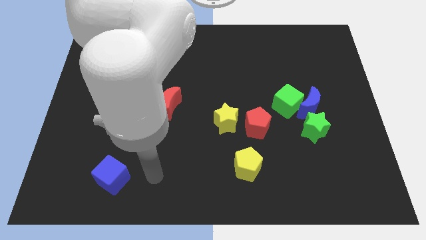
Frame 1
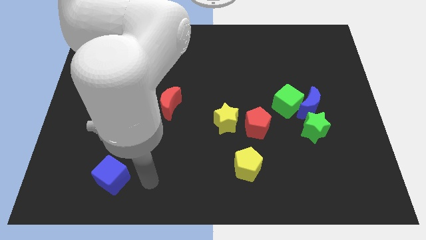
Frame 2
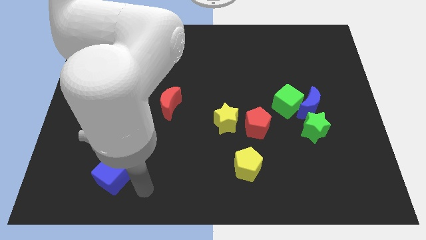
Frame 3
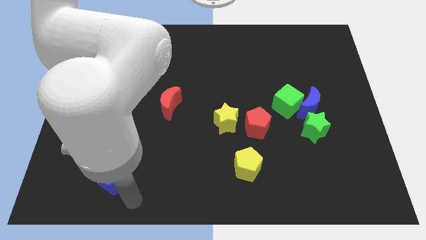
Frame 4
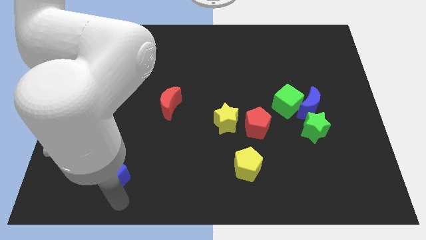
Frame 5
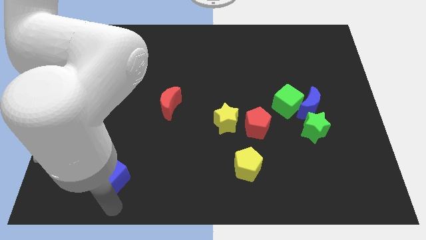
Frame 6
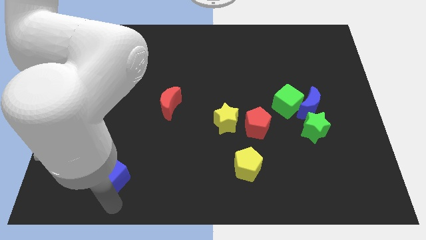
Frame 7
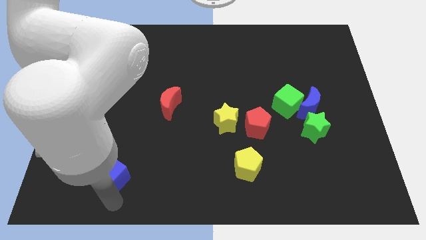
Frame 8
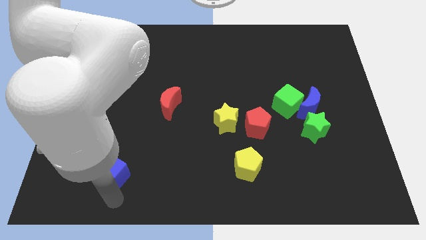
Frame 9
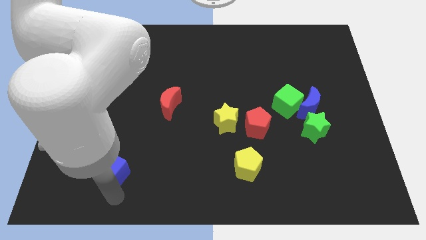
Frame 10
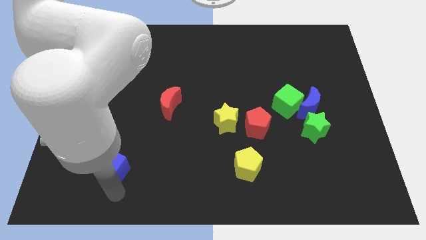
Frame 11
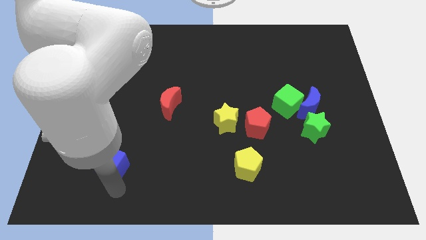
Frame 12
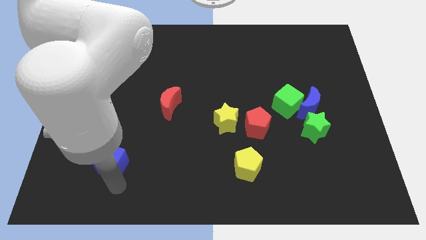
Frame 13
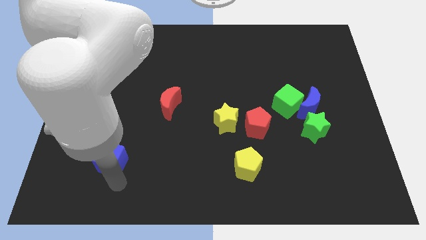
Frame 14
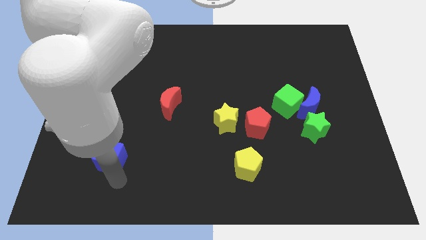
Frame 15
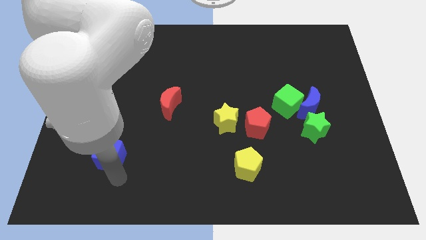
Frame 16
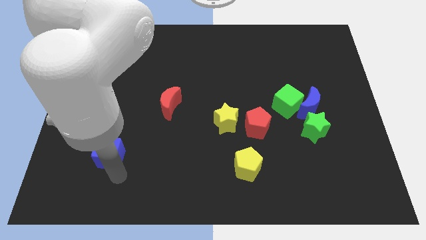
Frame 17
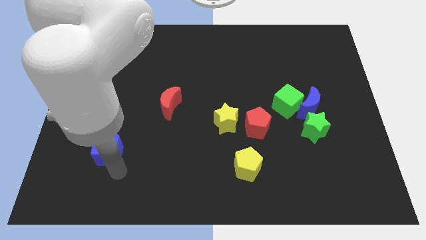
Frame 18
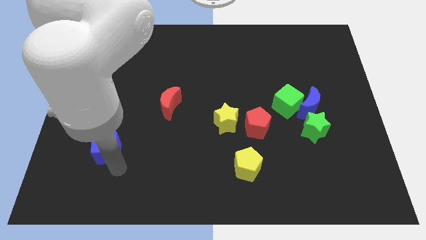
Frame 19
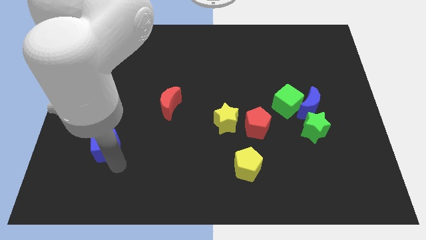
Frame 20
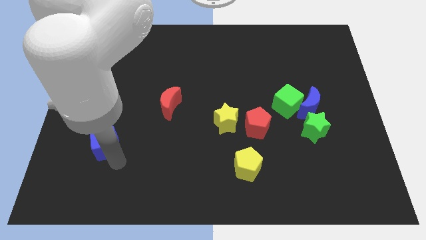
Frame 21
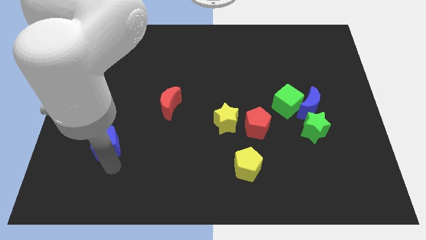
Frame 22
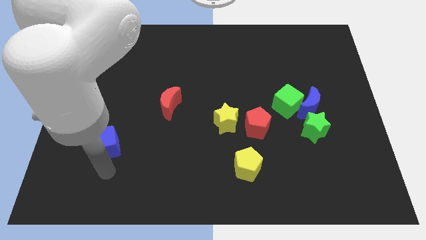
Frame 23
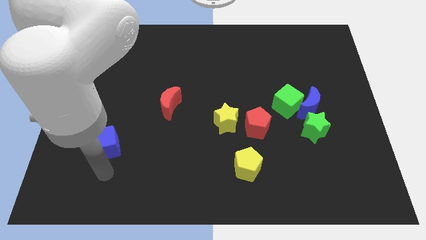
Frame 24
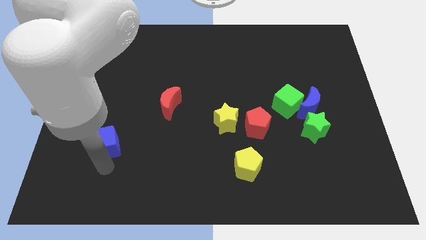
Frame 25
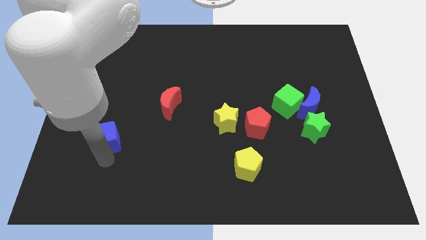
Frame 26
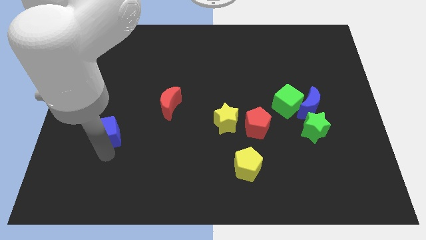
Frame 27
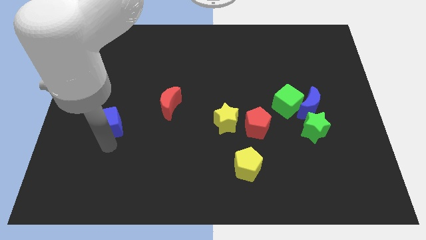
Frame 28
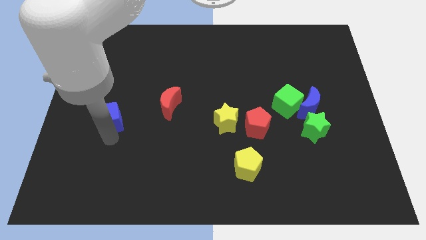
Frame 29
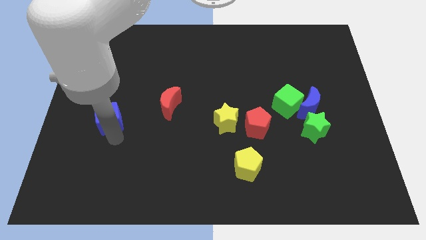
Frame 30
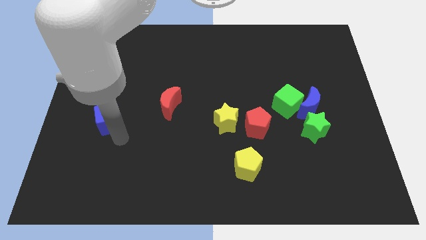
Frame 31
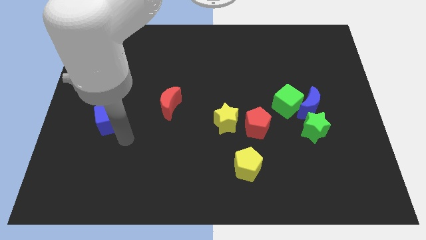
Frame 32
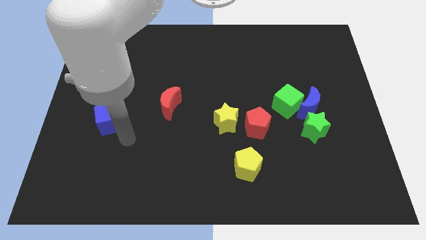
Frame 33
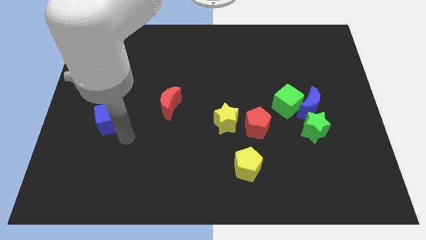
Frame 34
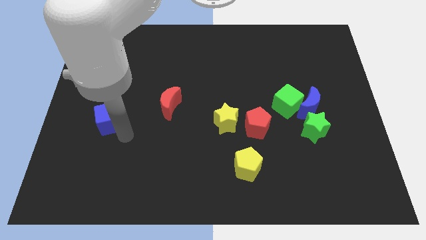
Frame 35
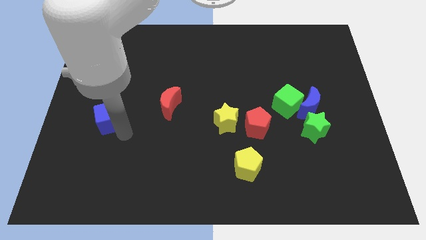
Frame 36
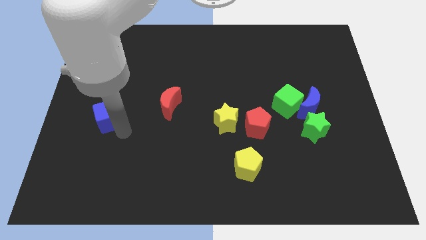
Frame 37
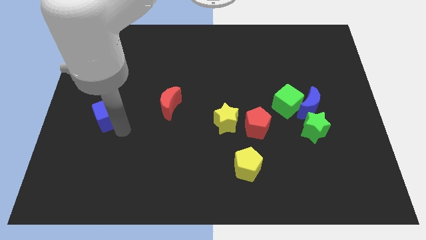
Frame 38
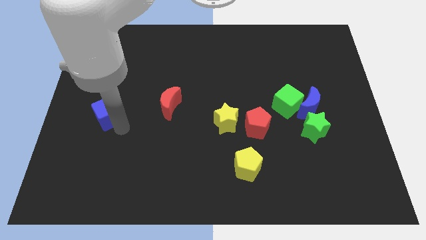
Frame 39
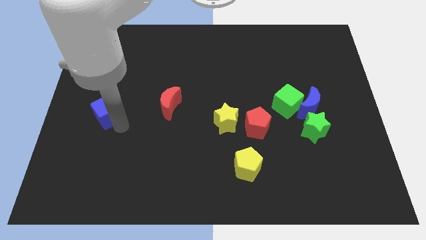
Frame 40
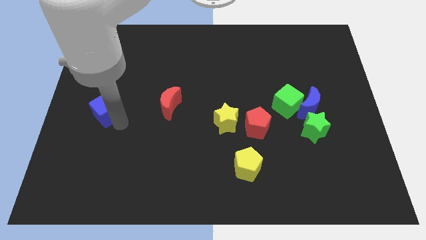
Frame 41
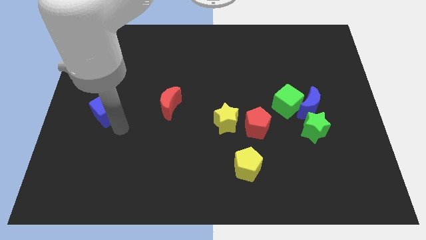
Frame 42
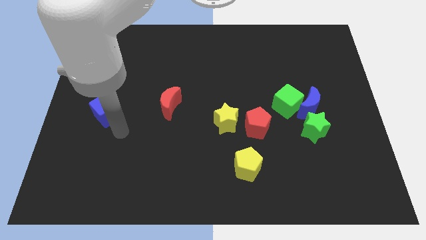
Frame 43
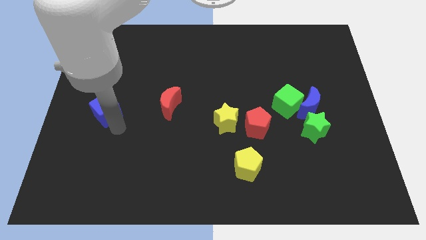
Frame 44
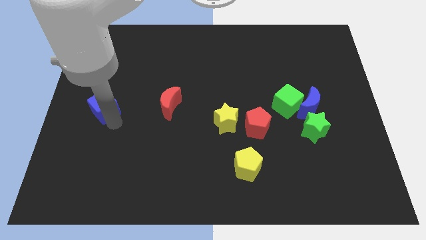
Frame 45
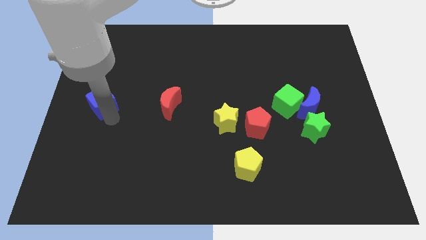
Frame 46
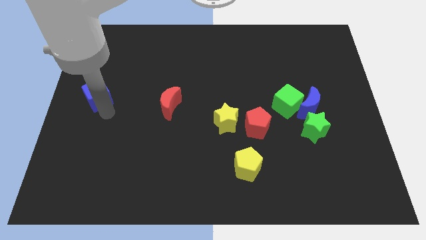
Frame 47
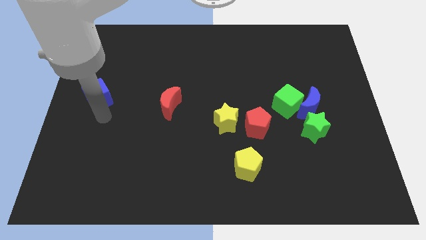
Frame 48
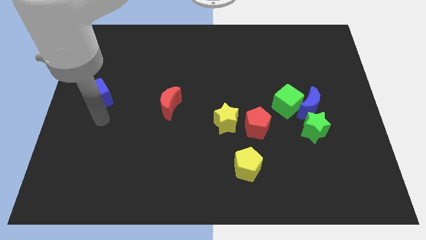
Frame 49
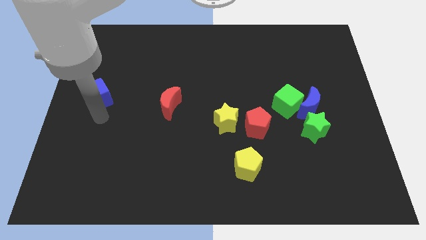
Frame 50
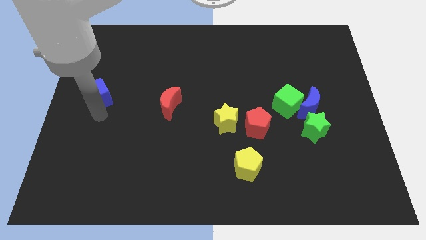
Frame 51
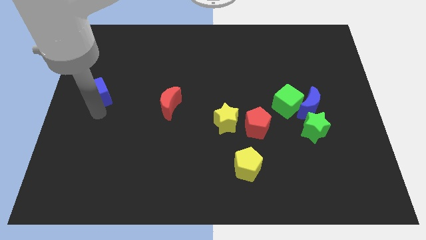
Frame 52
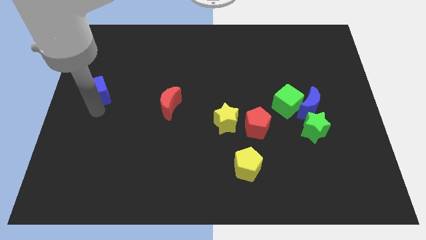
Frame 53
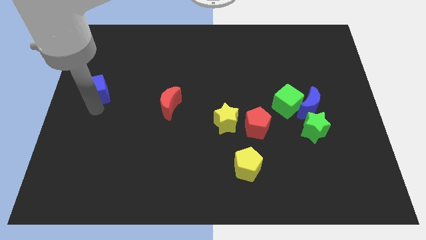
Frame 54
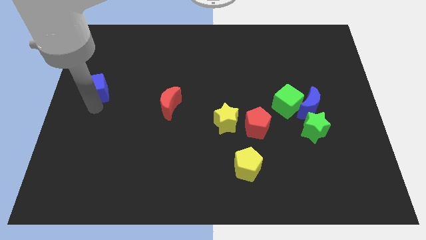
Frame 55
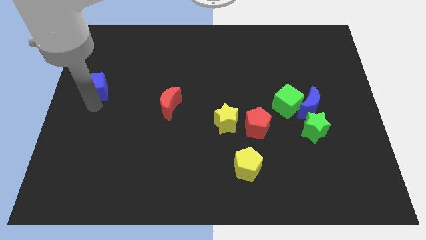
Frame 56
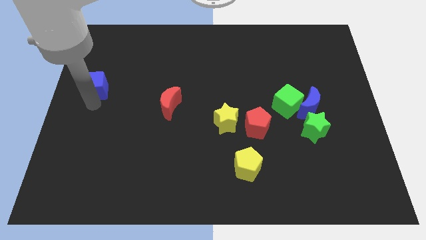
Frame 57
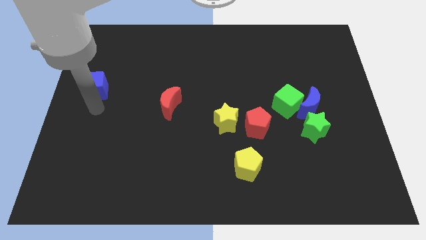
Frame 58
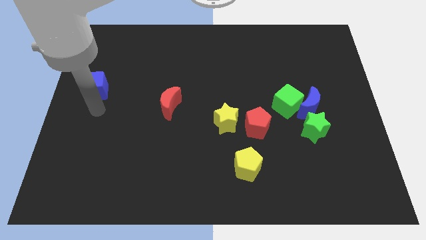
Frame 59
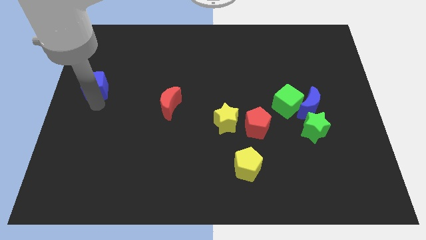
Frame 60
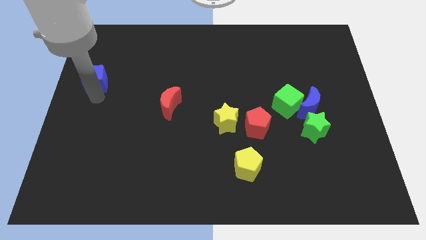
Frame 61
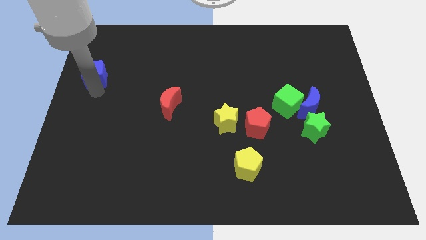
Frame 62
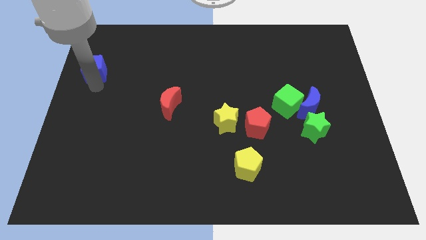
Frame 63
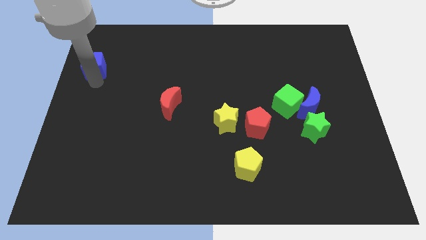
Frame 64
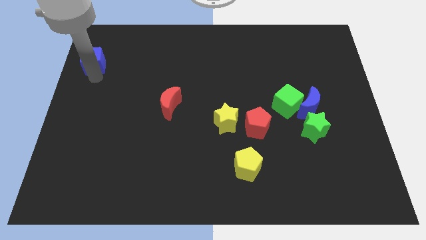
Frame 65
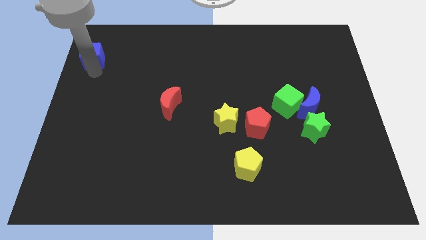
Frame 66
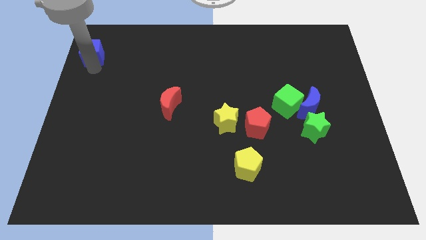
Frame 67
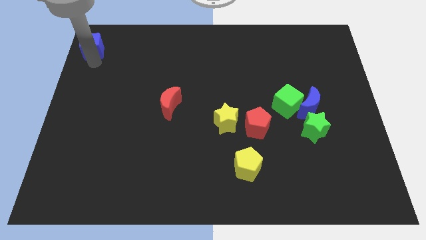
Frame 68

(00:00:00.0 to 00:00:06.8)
put the blue cube to the upper left corner
